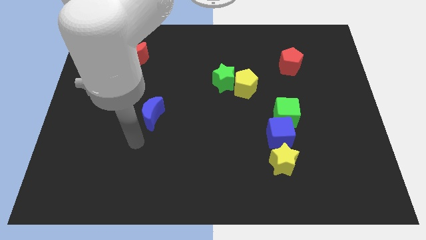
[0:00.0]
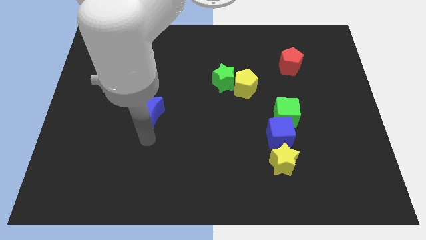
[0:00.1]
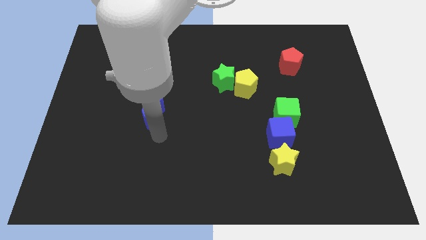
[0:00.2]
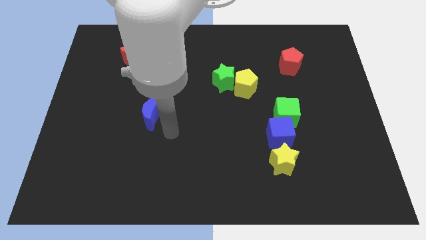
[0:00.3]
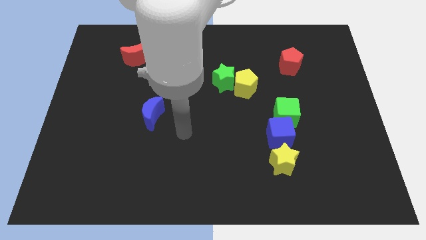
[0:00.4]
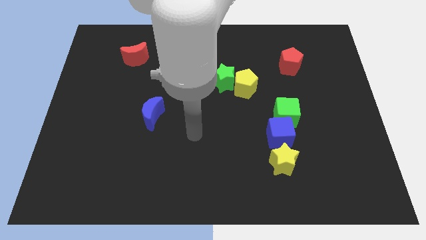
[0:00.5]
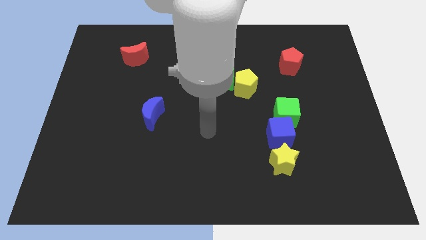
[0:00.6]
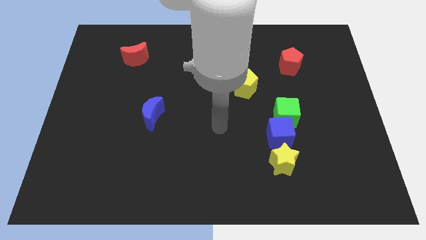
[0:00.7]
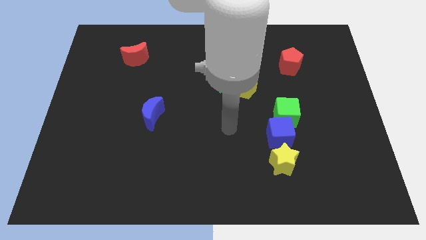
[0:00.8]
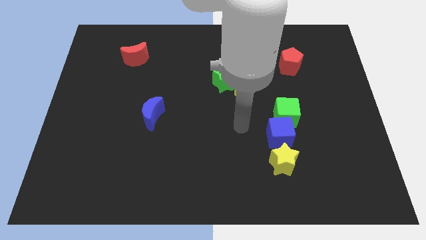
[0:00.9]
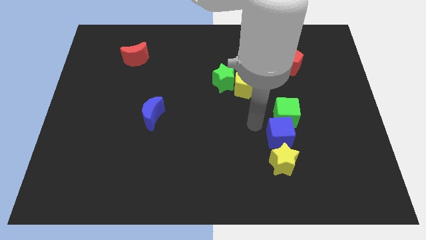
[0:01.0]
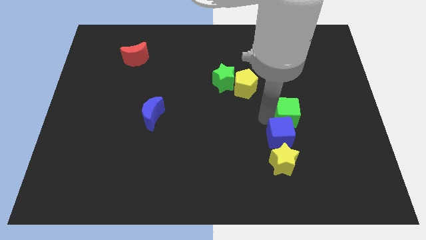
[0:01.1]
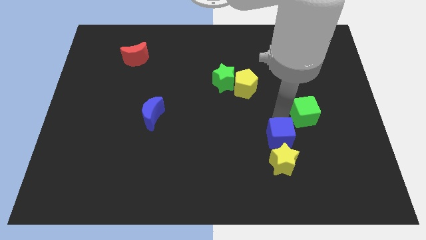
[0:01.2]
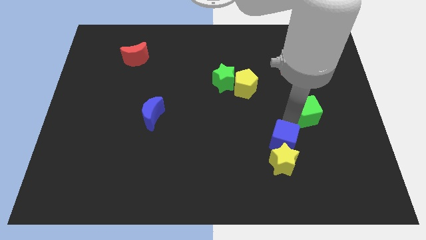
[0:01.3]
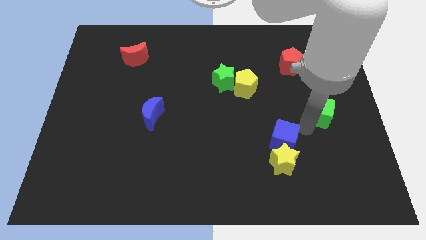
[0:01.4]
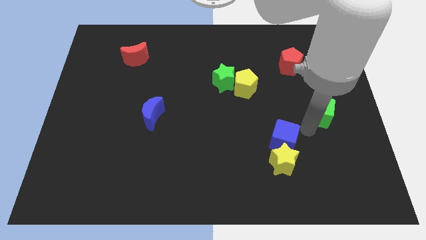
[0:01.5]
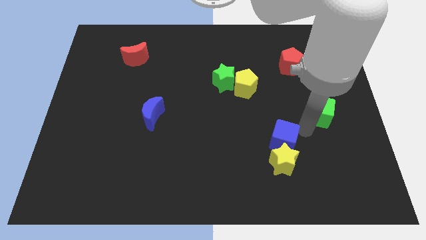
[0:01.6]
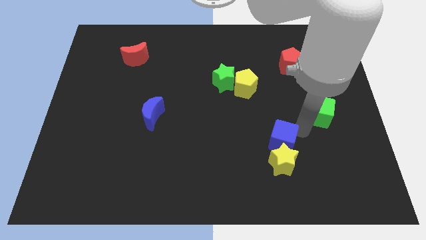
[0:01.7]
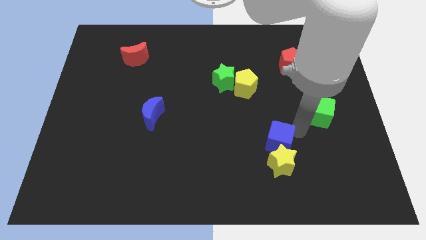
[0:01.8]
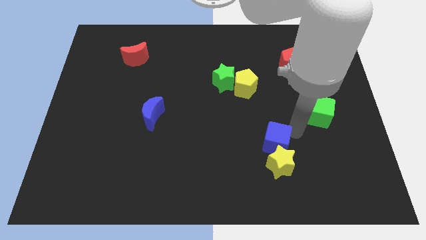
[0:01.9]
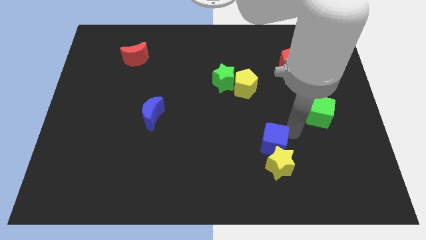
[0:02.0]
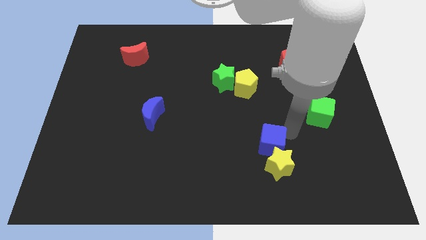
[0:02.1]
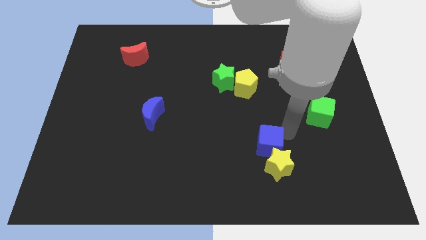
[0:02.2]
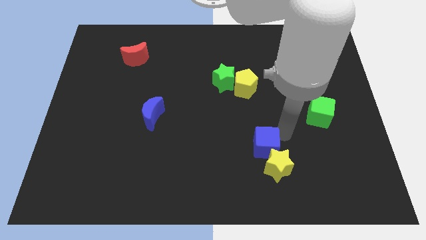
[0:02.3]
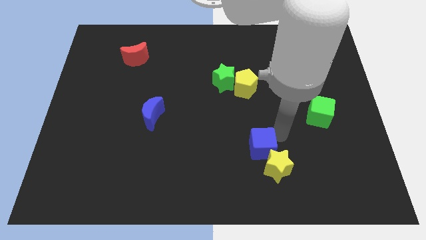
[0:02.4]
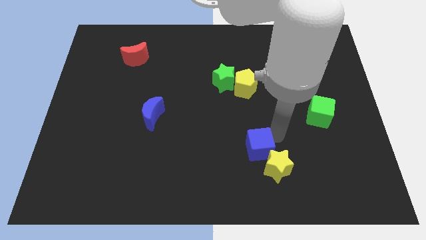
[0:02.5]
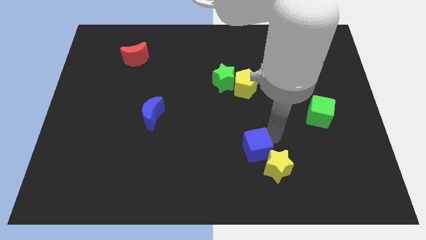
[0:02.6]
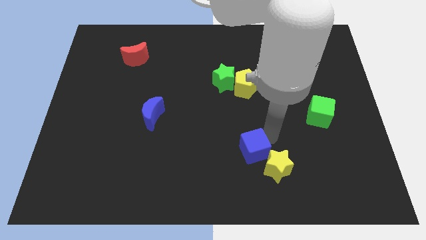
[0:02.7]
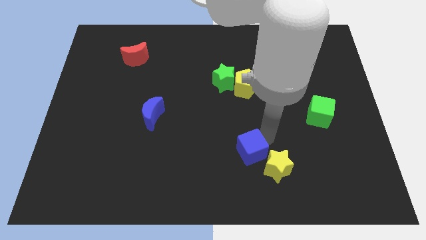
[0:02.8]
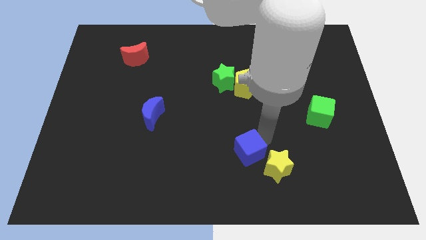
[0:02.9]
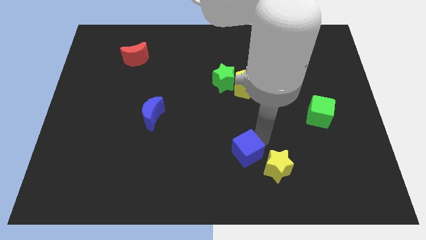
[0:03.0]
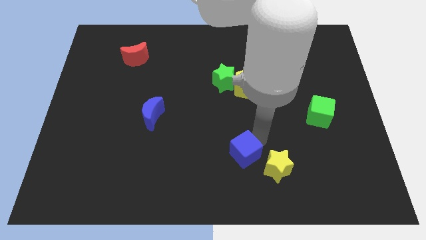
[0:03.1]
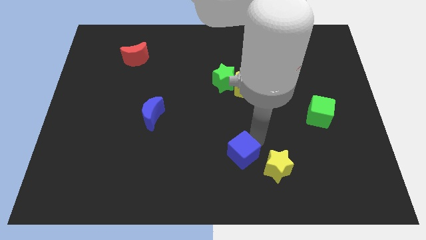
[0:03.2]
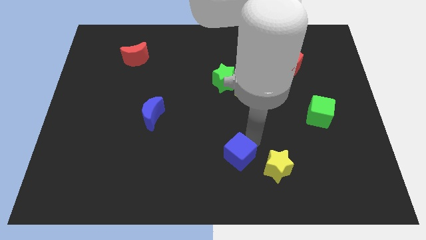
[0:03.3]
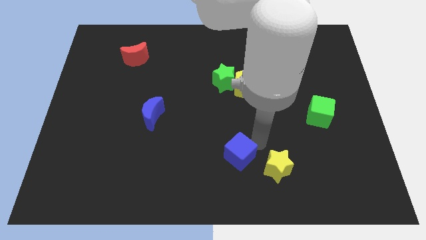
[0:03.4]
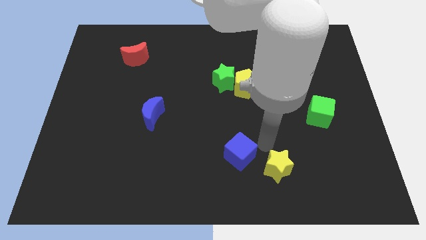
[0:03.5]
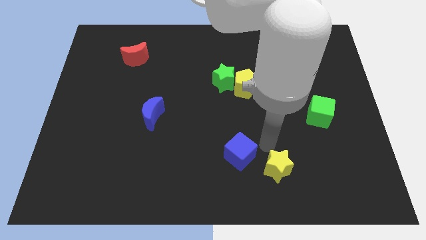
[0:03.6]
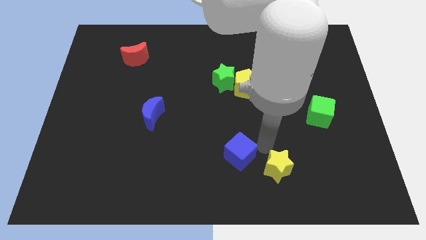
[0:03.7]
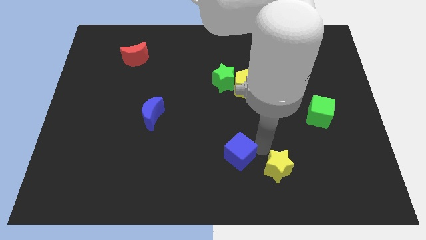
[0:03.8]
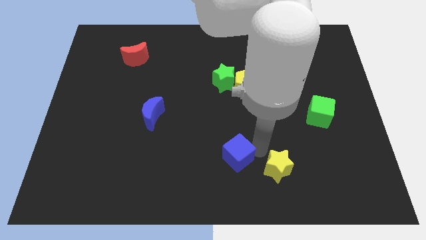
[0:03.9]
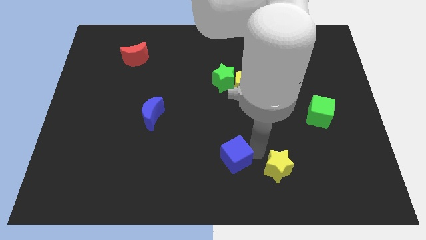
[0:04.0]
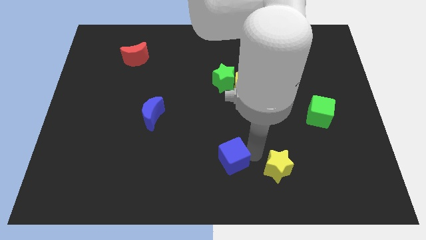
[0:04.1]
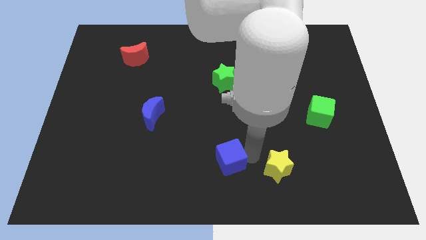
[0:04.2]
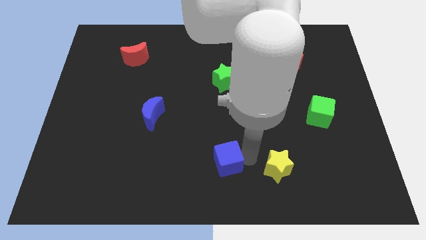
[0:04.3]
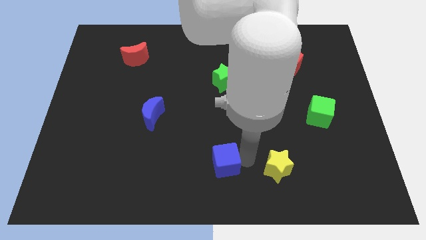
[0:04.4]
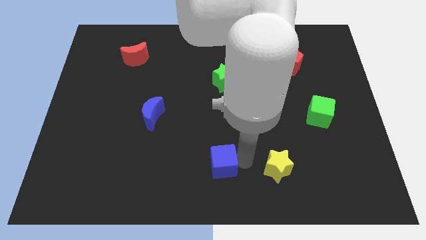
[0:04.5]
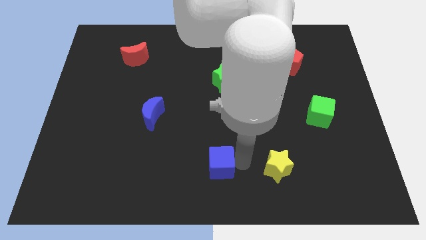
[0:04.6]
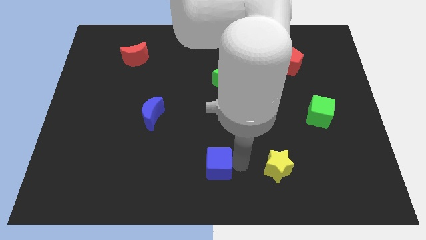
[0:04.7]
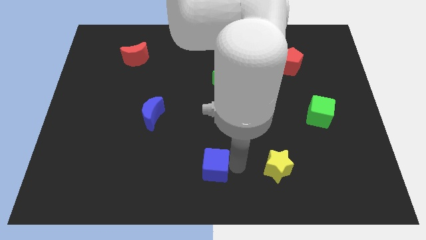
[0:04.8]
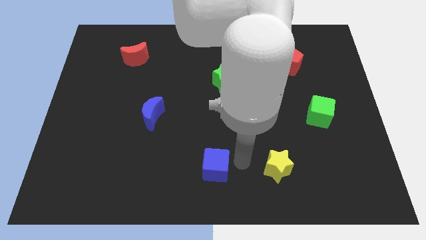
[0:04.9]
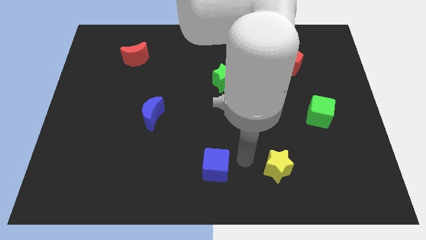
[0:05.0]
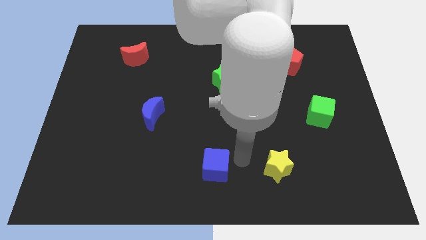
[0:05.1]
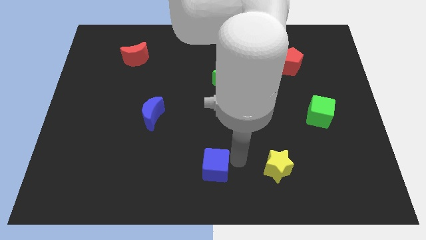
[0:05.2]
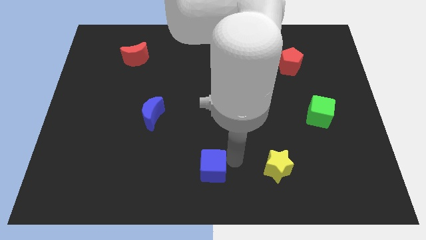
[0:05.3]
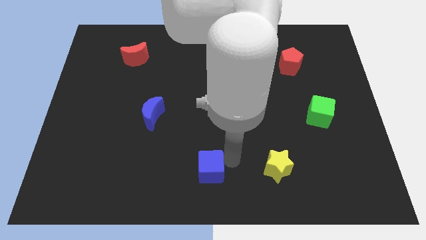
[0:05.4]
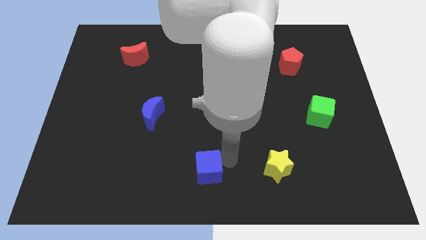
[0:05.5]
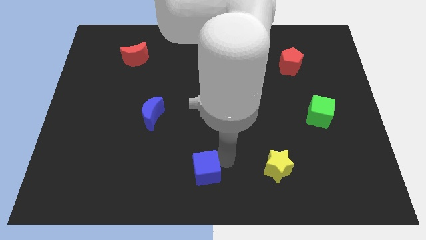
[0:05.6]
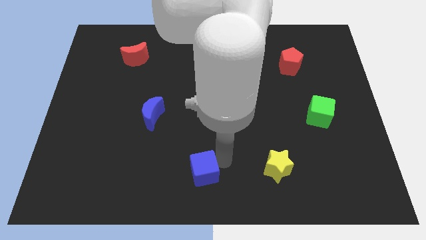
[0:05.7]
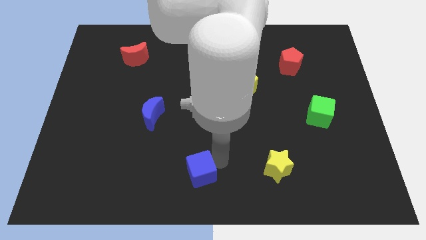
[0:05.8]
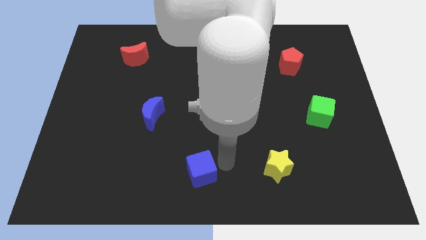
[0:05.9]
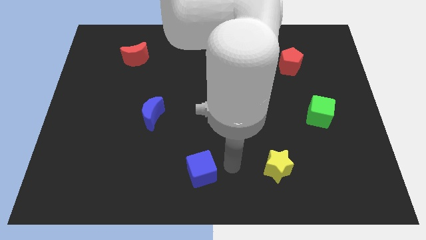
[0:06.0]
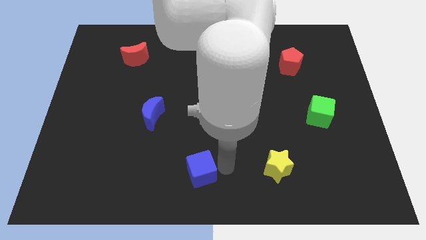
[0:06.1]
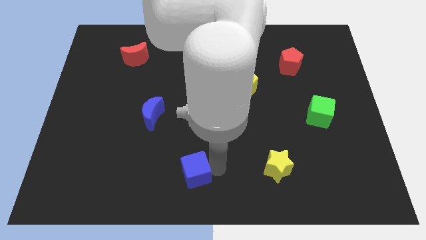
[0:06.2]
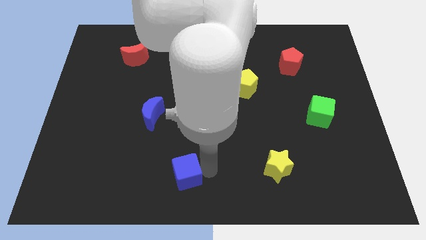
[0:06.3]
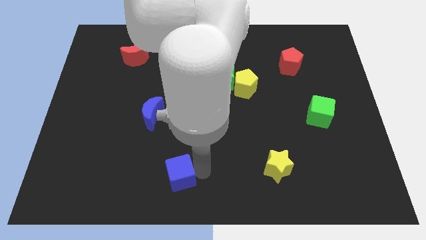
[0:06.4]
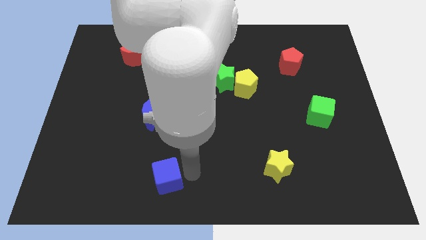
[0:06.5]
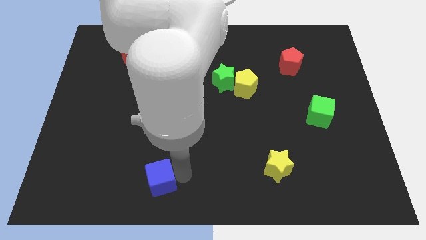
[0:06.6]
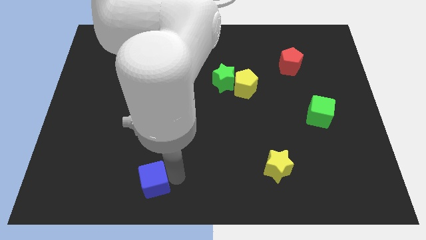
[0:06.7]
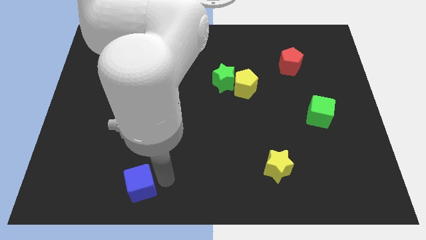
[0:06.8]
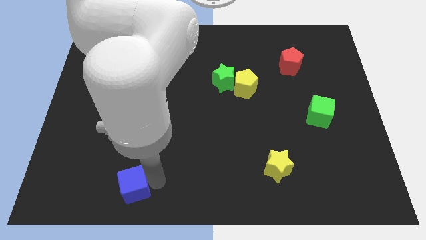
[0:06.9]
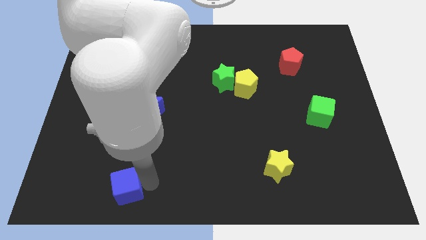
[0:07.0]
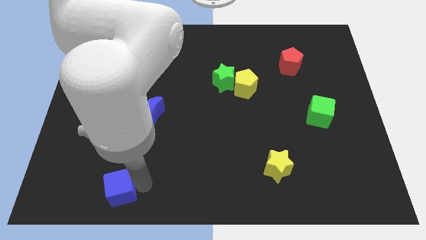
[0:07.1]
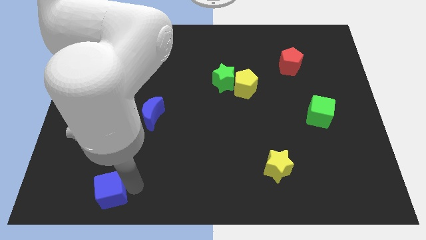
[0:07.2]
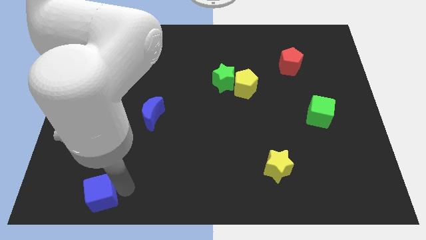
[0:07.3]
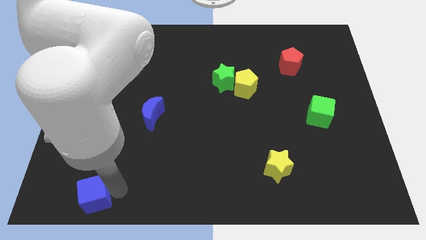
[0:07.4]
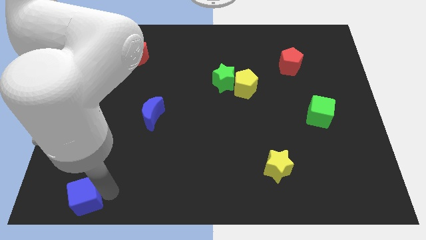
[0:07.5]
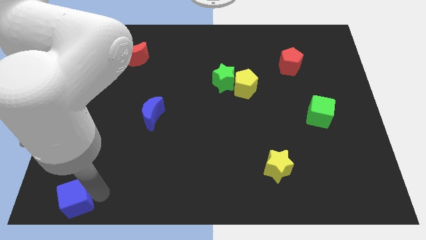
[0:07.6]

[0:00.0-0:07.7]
push the blue cube to the bottom left corner

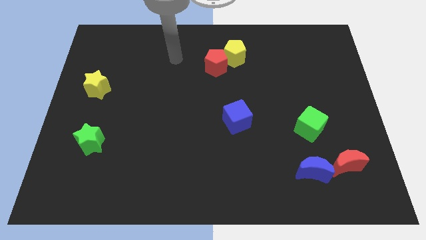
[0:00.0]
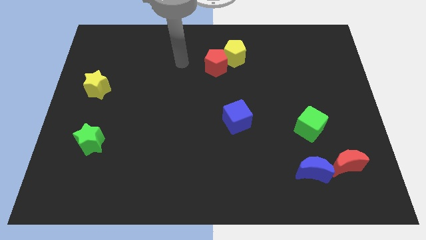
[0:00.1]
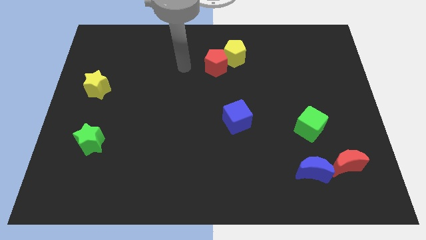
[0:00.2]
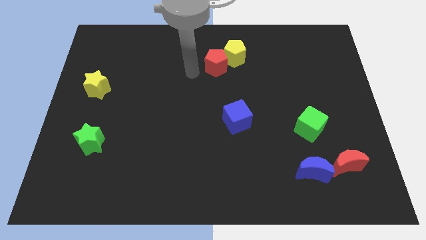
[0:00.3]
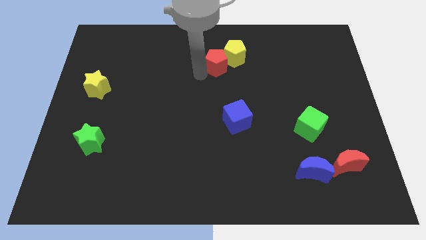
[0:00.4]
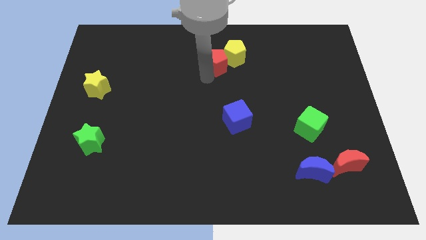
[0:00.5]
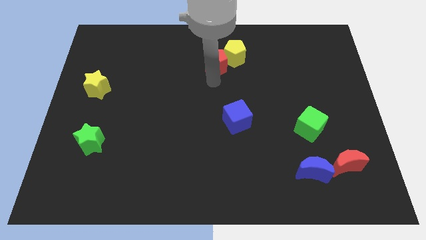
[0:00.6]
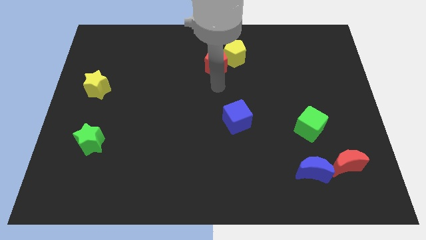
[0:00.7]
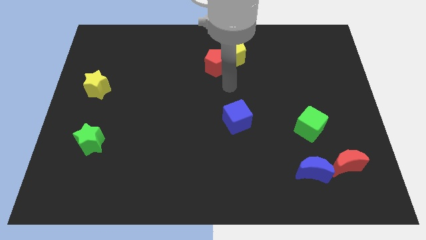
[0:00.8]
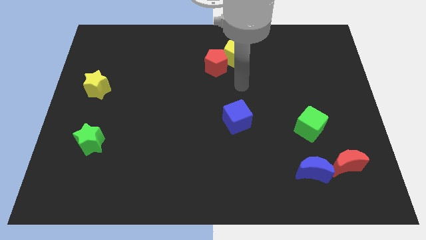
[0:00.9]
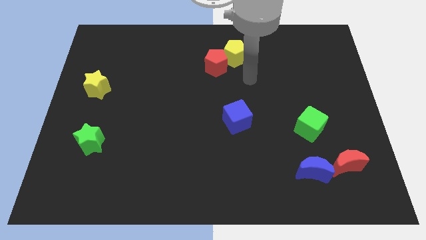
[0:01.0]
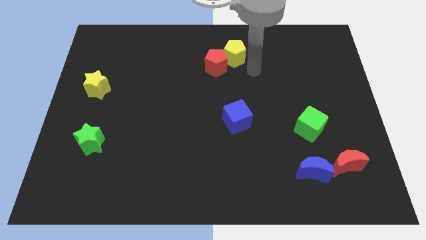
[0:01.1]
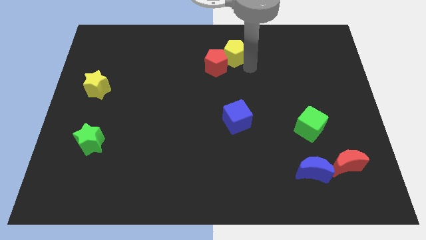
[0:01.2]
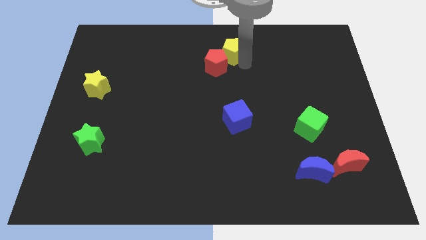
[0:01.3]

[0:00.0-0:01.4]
push the yellow pentagon to the top
